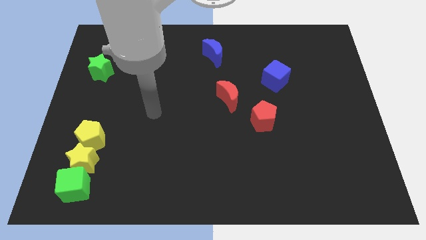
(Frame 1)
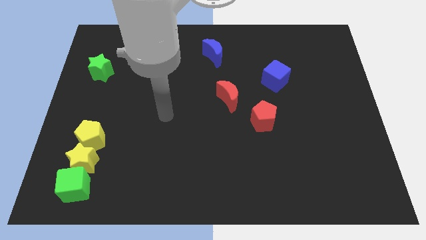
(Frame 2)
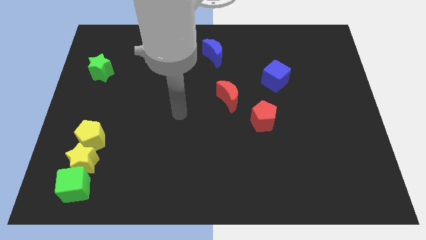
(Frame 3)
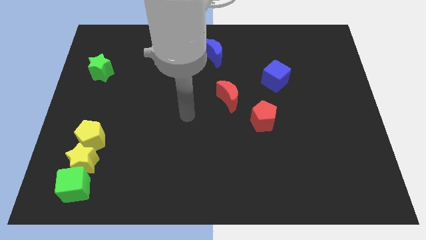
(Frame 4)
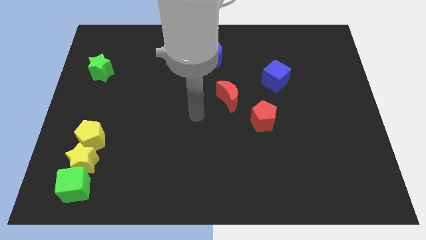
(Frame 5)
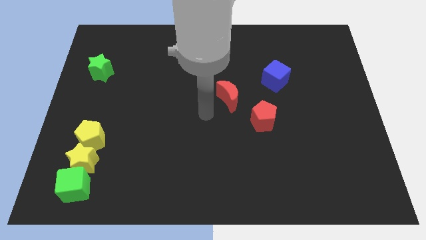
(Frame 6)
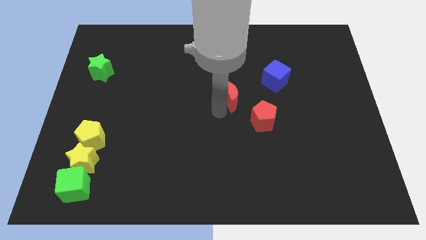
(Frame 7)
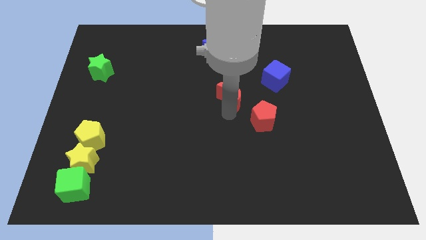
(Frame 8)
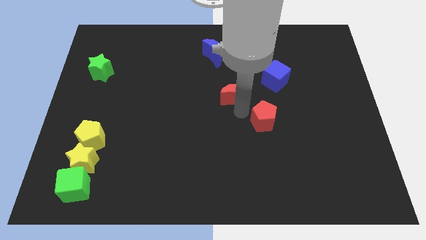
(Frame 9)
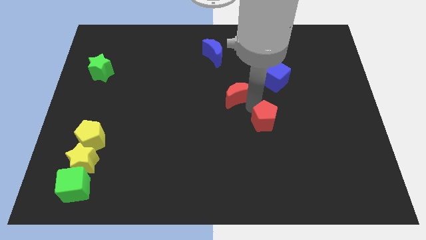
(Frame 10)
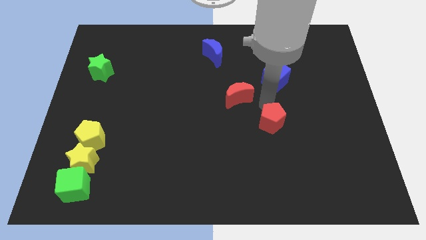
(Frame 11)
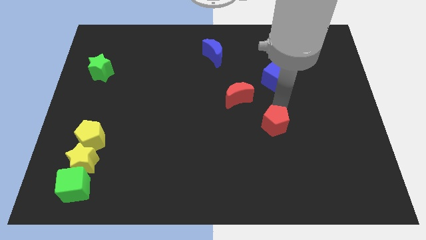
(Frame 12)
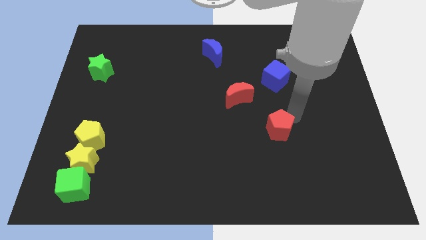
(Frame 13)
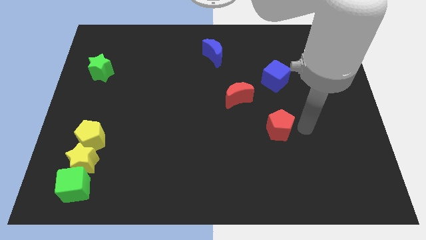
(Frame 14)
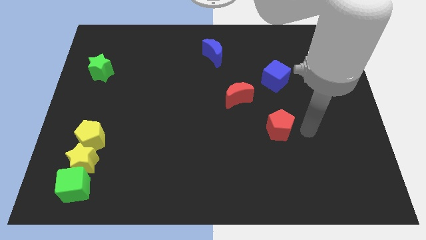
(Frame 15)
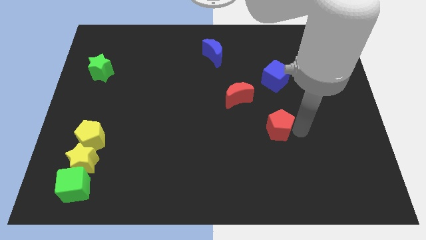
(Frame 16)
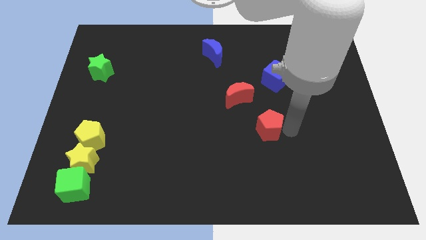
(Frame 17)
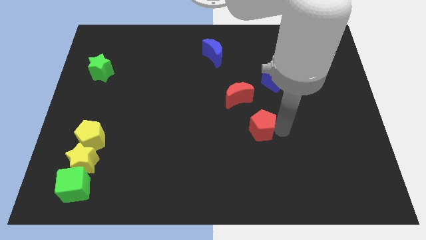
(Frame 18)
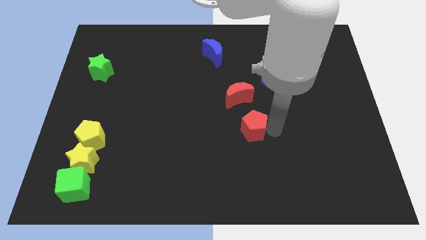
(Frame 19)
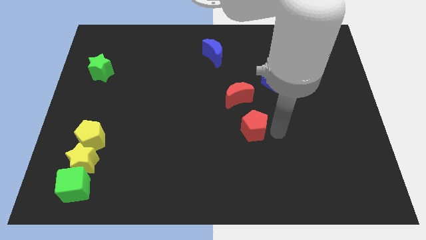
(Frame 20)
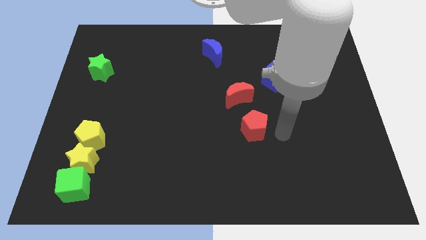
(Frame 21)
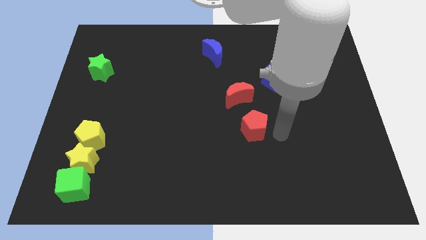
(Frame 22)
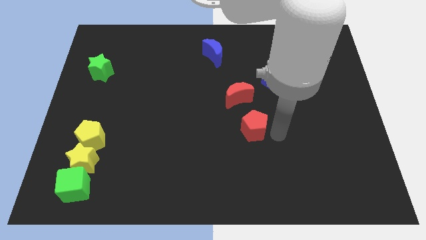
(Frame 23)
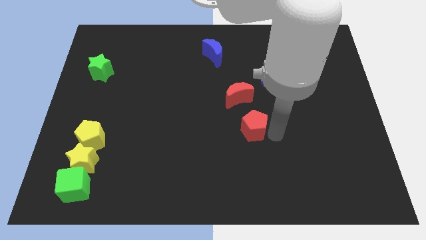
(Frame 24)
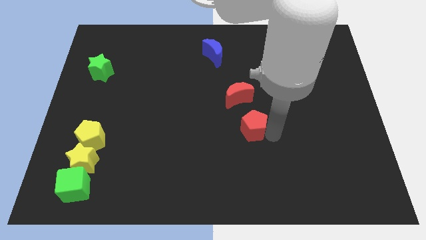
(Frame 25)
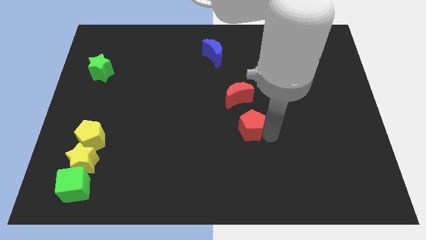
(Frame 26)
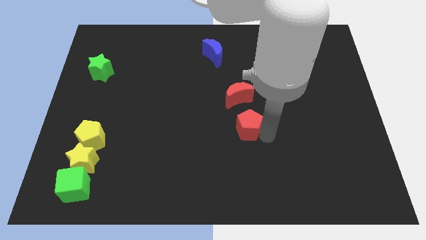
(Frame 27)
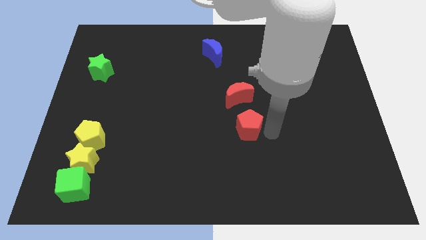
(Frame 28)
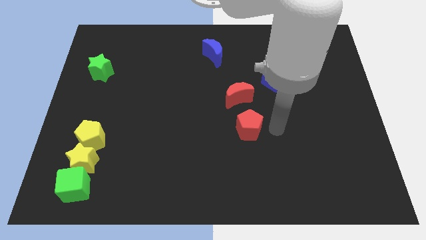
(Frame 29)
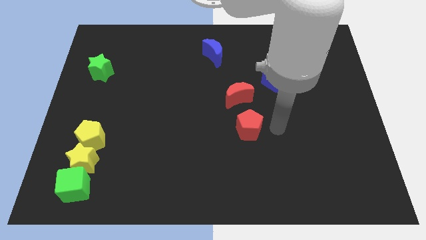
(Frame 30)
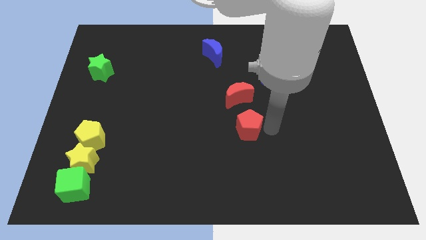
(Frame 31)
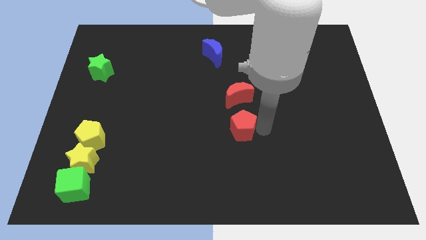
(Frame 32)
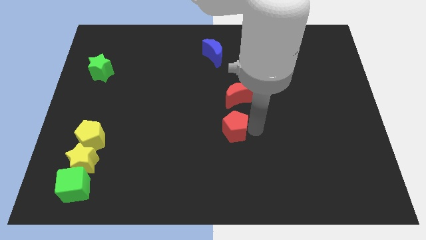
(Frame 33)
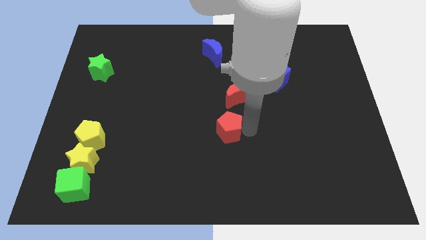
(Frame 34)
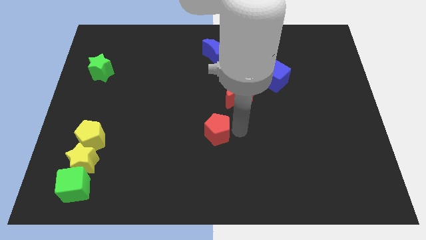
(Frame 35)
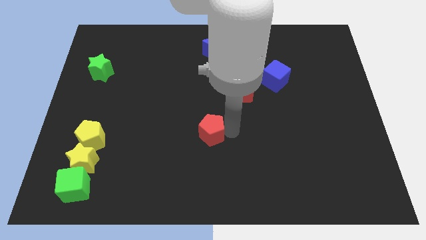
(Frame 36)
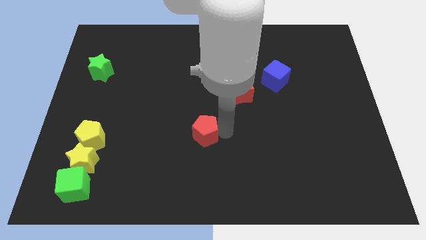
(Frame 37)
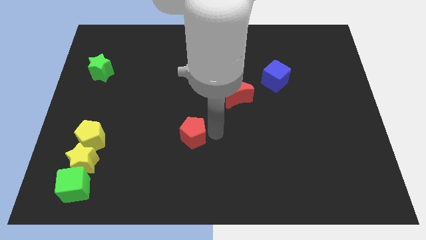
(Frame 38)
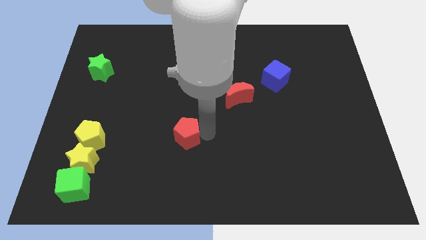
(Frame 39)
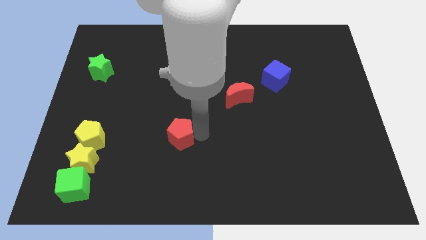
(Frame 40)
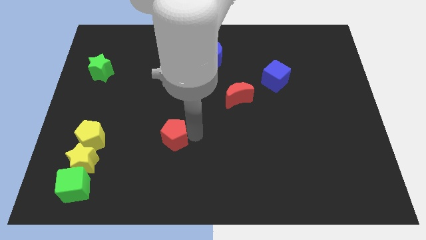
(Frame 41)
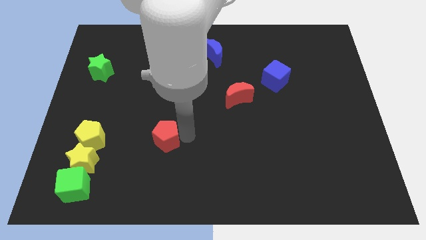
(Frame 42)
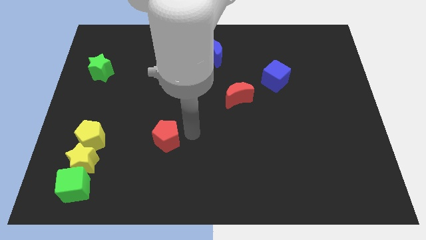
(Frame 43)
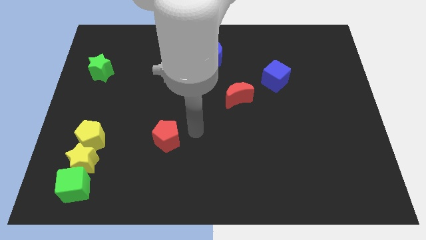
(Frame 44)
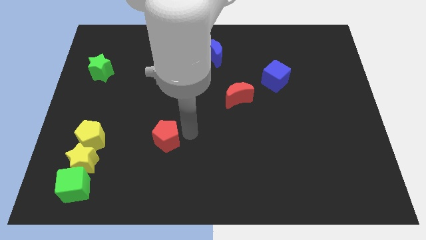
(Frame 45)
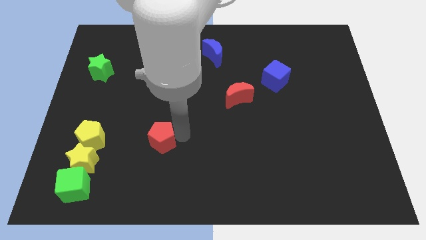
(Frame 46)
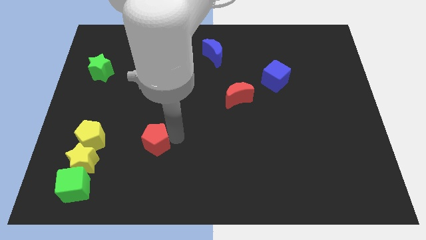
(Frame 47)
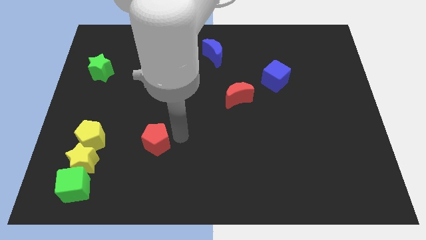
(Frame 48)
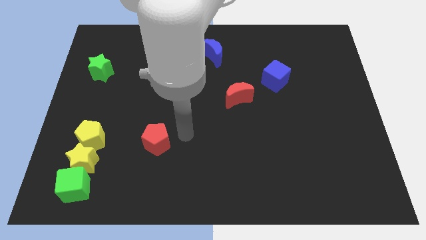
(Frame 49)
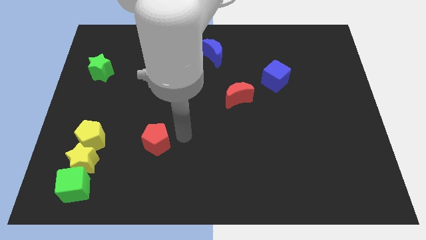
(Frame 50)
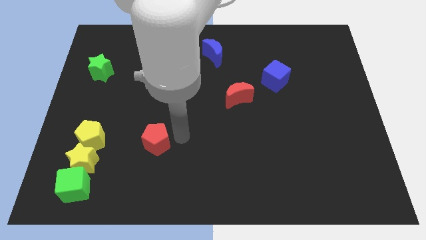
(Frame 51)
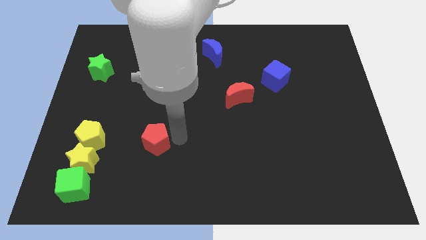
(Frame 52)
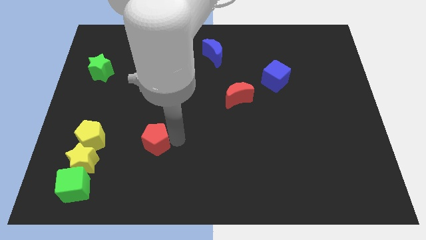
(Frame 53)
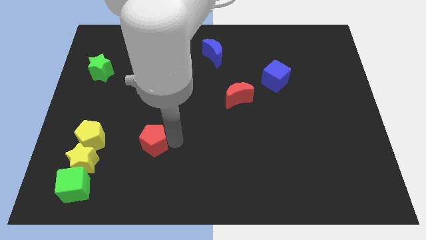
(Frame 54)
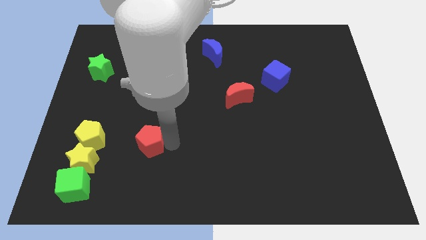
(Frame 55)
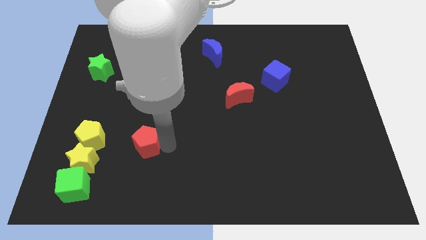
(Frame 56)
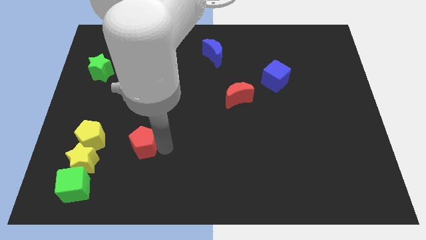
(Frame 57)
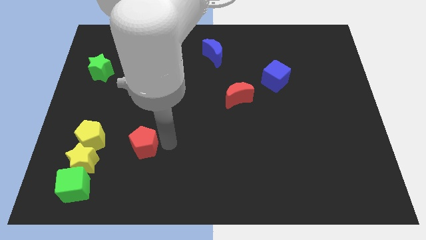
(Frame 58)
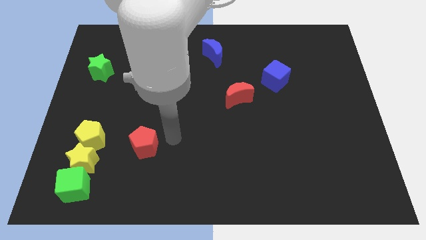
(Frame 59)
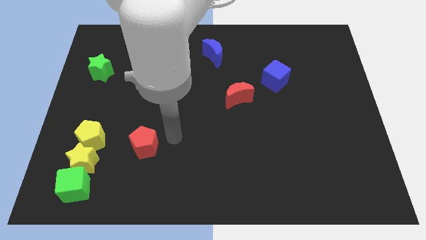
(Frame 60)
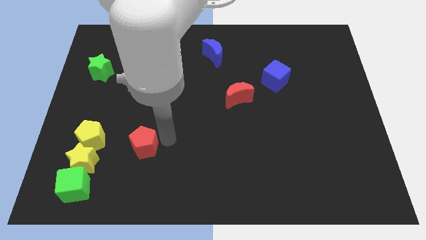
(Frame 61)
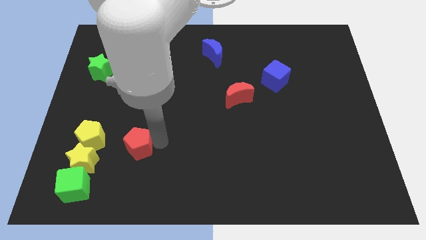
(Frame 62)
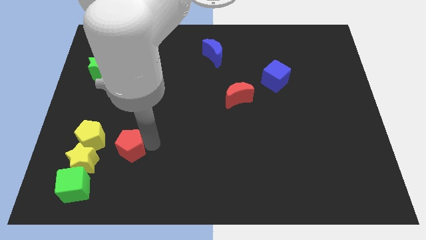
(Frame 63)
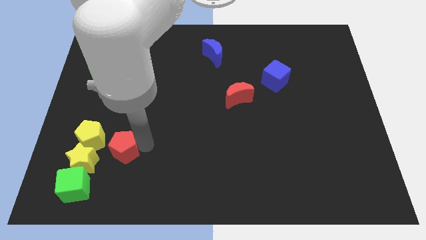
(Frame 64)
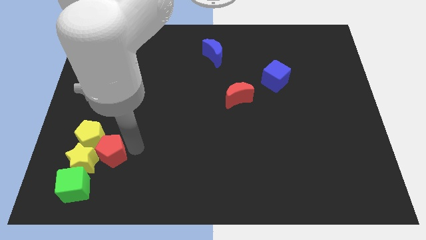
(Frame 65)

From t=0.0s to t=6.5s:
slide the red pentagon towards the yellow star

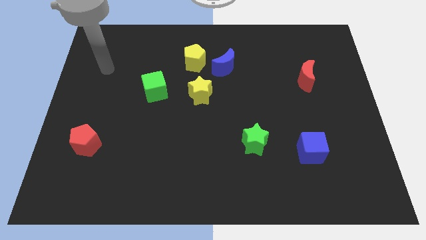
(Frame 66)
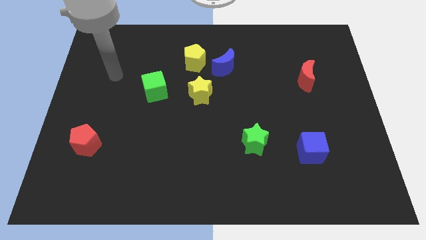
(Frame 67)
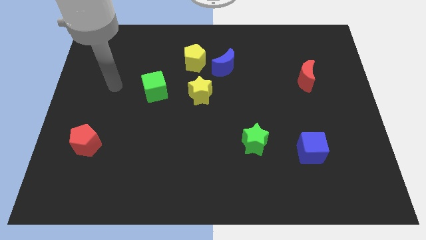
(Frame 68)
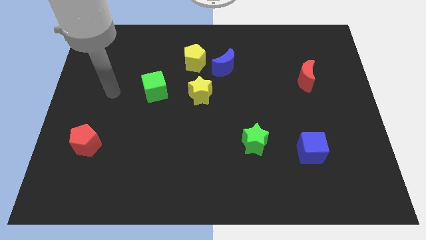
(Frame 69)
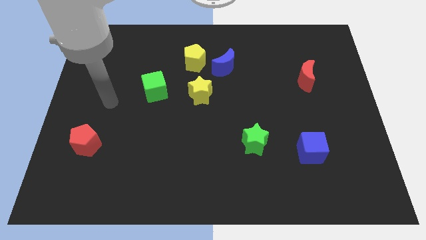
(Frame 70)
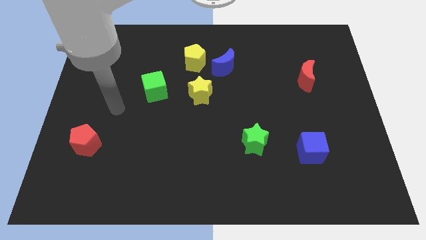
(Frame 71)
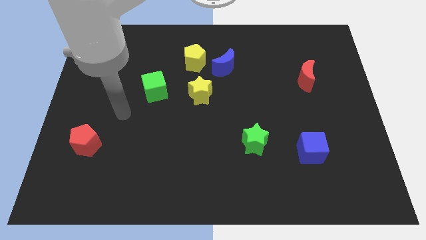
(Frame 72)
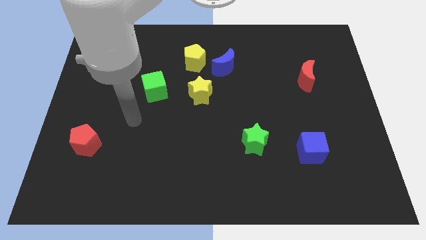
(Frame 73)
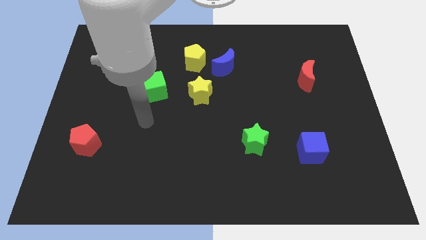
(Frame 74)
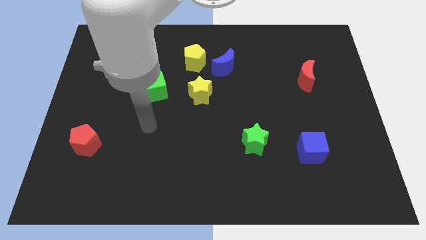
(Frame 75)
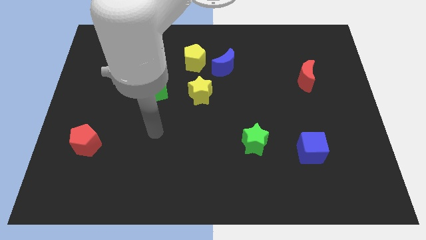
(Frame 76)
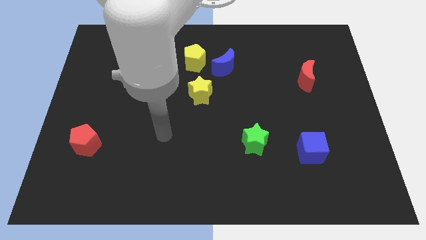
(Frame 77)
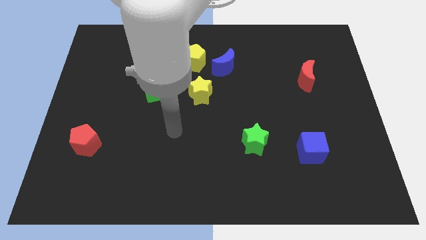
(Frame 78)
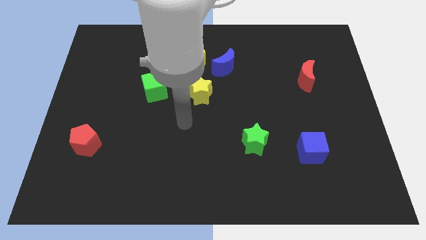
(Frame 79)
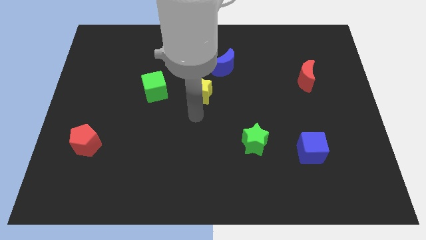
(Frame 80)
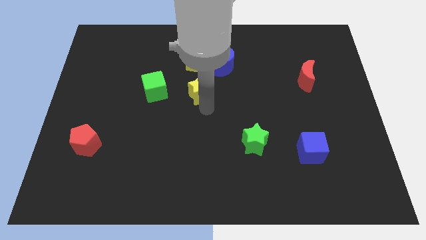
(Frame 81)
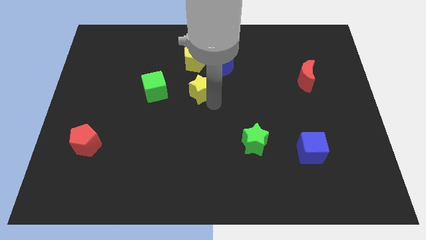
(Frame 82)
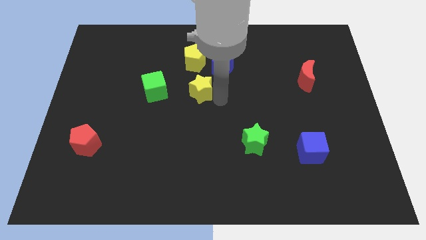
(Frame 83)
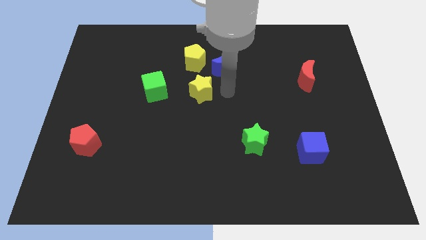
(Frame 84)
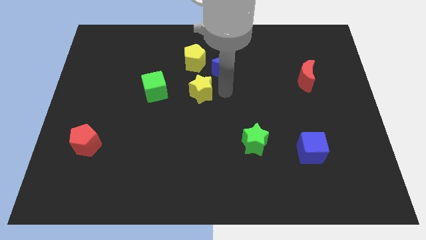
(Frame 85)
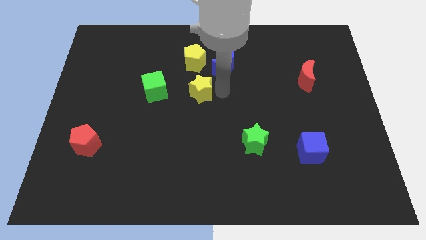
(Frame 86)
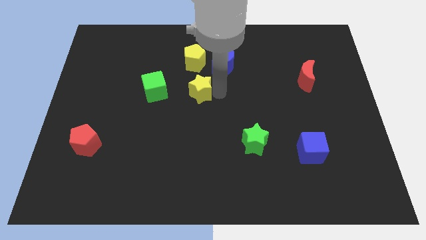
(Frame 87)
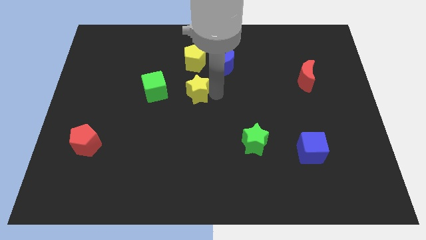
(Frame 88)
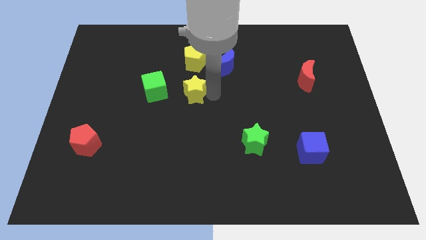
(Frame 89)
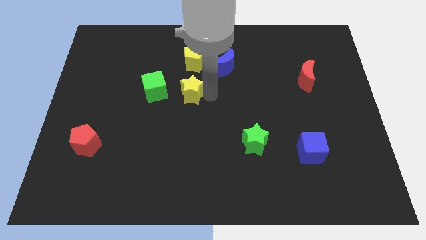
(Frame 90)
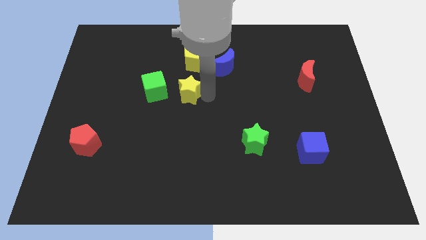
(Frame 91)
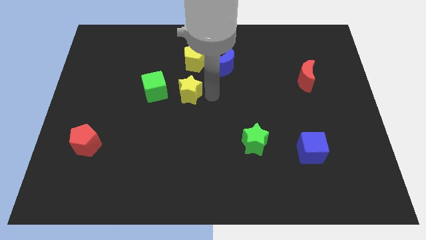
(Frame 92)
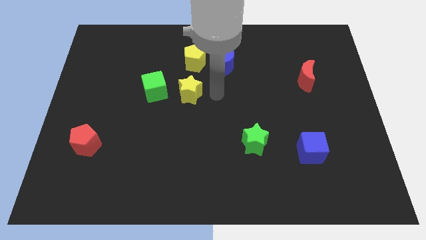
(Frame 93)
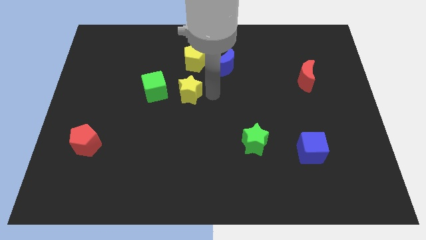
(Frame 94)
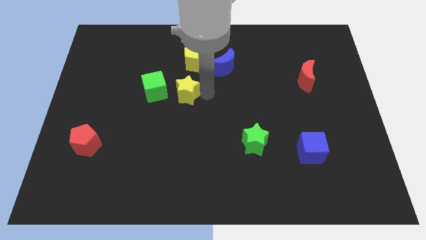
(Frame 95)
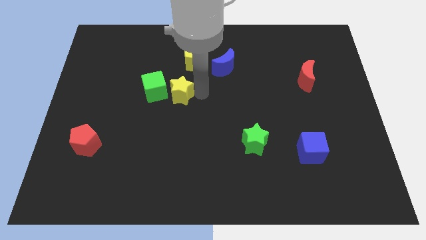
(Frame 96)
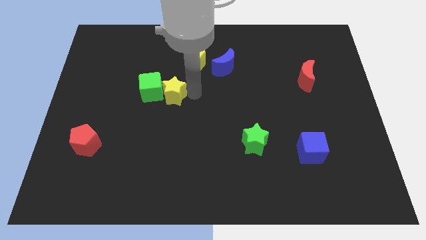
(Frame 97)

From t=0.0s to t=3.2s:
move the yellow star to the green cube
